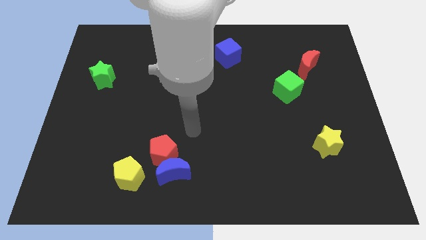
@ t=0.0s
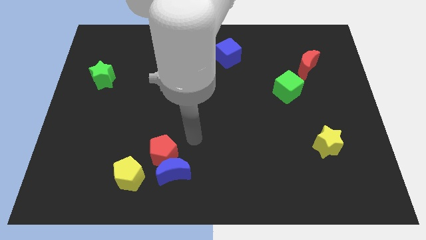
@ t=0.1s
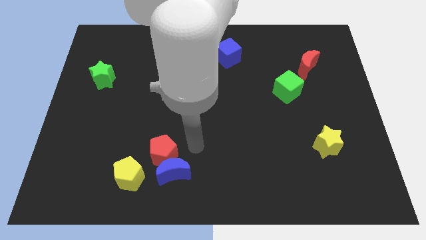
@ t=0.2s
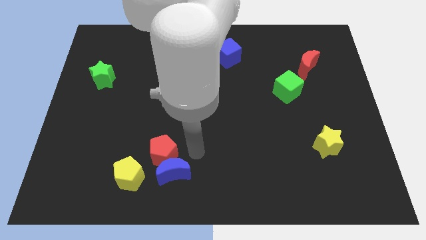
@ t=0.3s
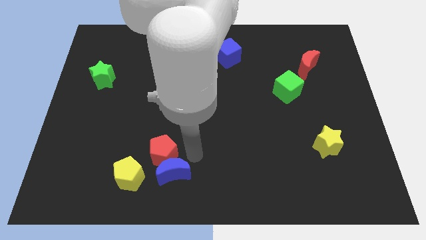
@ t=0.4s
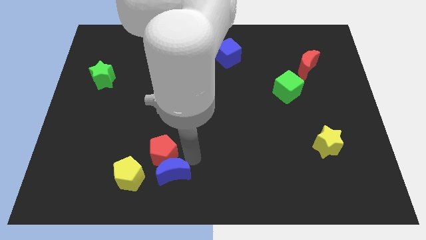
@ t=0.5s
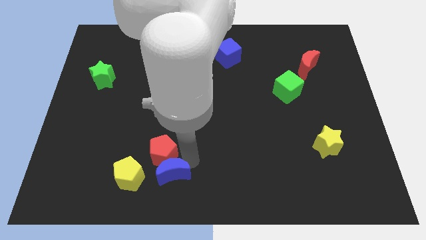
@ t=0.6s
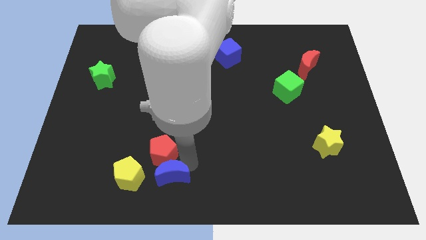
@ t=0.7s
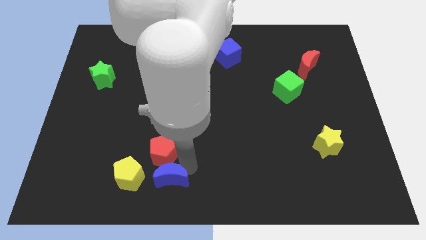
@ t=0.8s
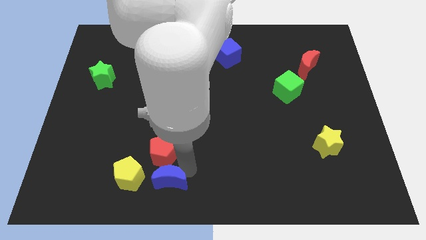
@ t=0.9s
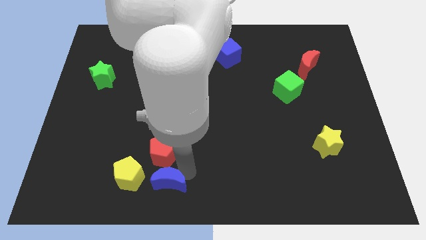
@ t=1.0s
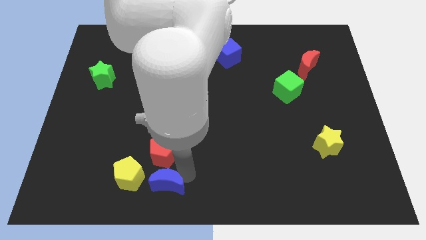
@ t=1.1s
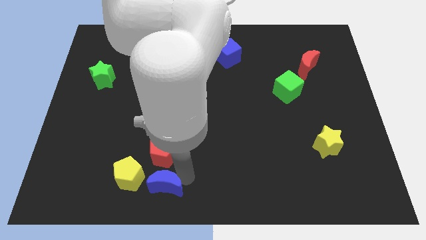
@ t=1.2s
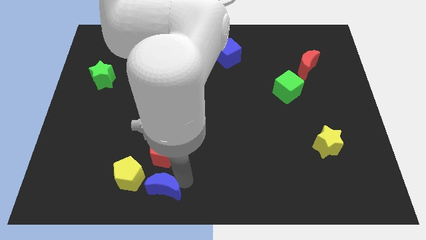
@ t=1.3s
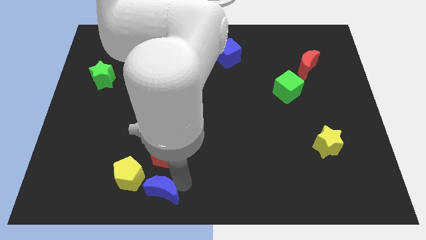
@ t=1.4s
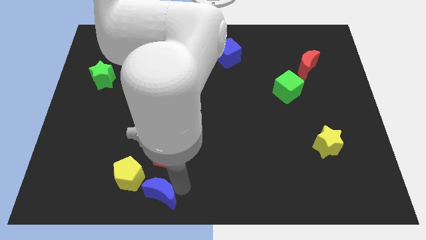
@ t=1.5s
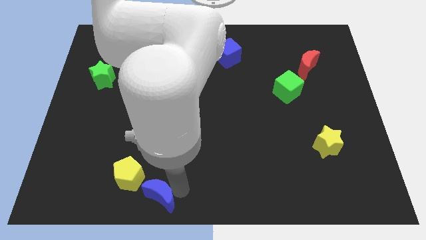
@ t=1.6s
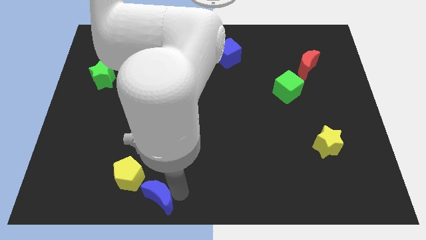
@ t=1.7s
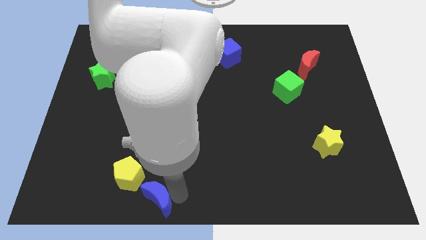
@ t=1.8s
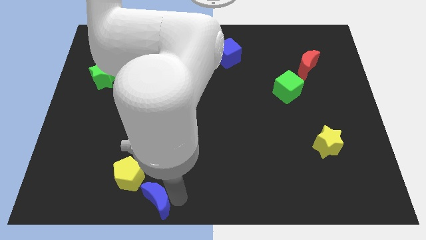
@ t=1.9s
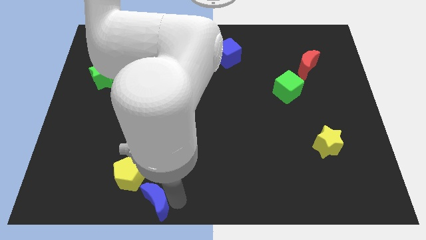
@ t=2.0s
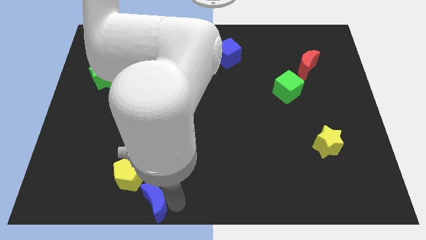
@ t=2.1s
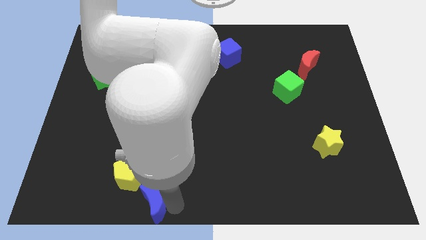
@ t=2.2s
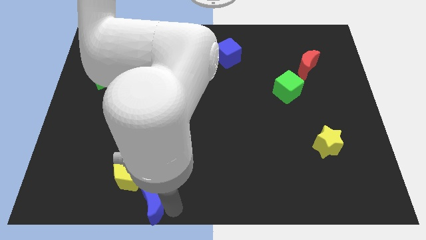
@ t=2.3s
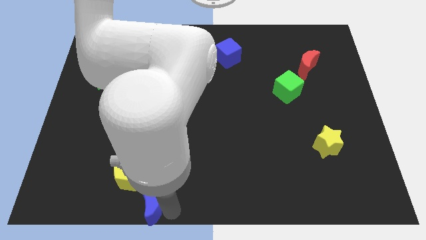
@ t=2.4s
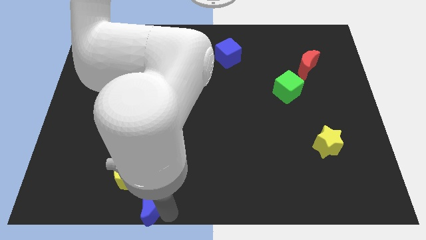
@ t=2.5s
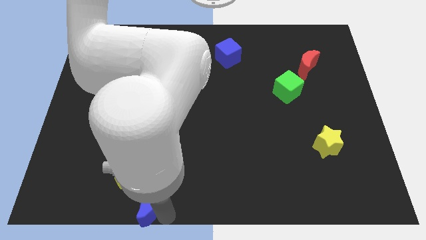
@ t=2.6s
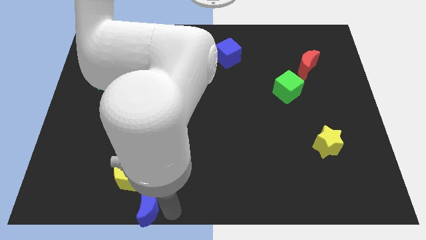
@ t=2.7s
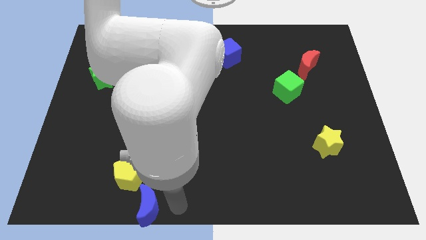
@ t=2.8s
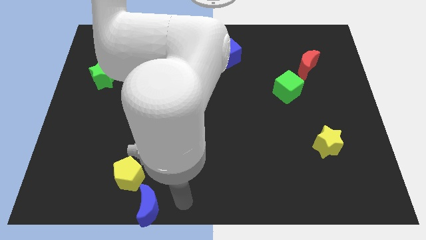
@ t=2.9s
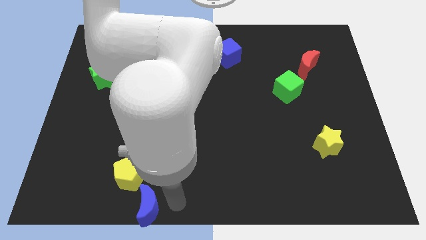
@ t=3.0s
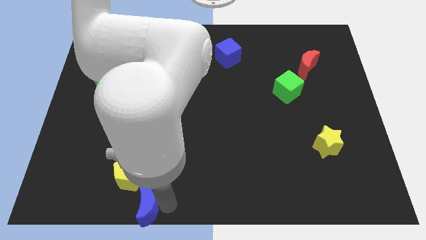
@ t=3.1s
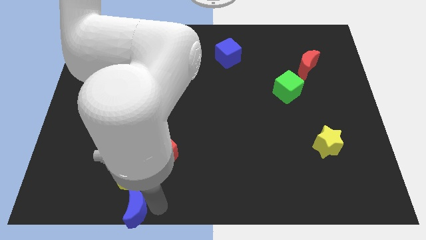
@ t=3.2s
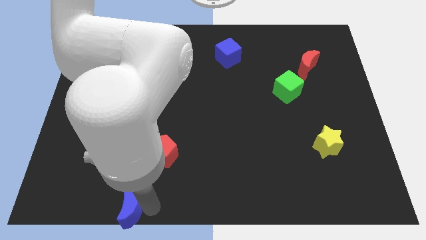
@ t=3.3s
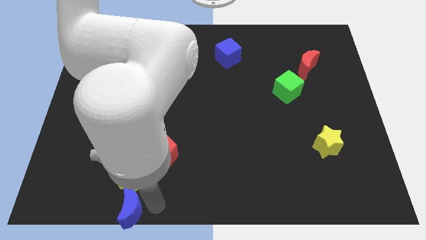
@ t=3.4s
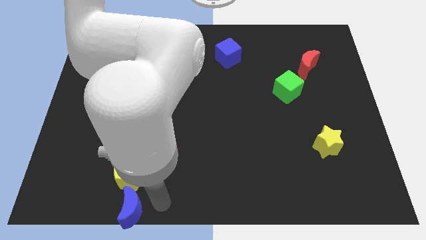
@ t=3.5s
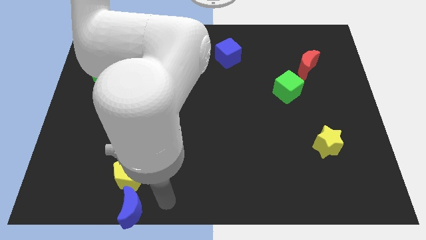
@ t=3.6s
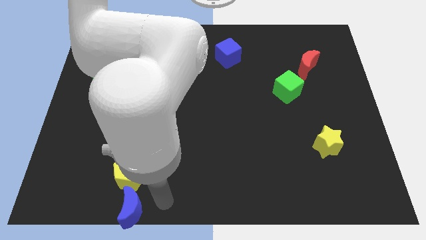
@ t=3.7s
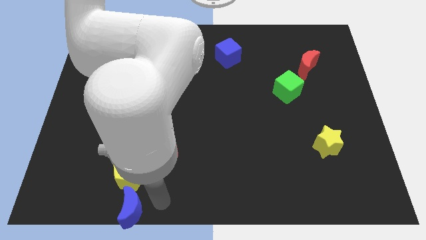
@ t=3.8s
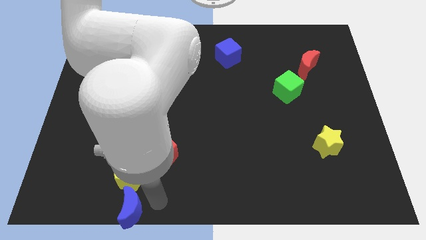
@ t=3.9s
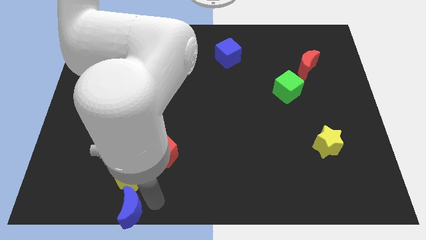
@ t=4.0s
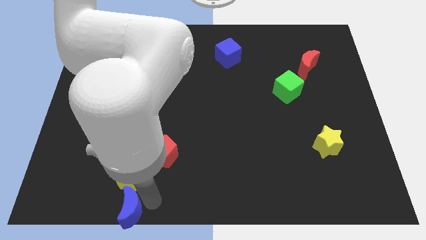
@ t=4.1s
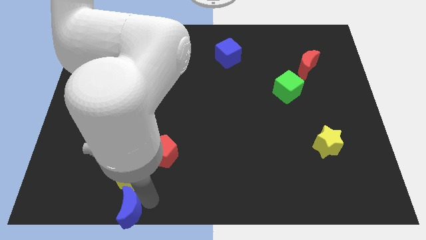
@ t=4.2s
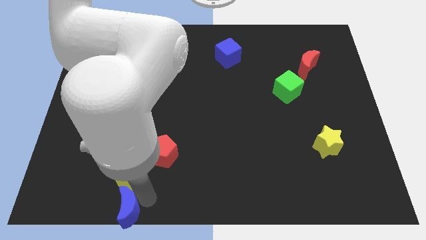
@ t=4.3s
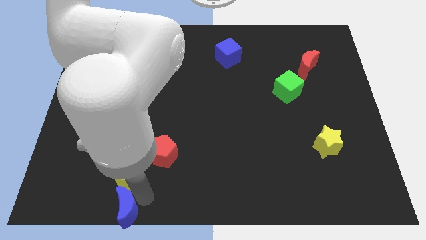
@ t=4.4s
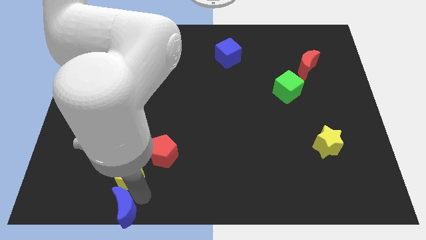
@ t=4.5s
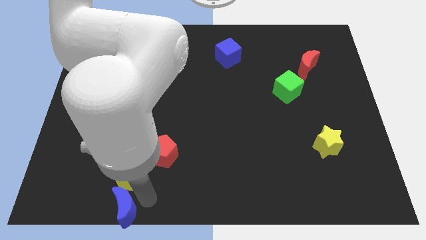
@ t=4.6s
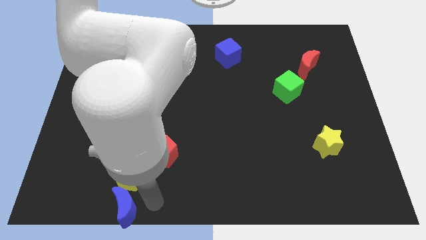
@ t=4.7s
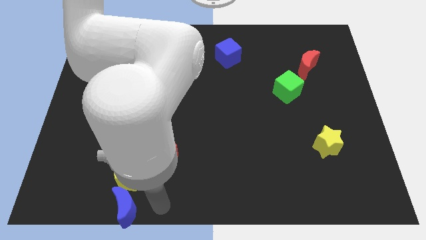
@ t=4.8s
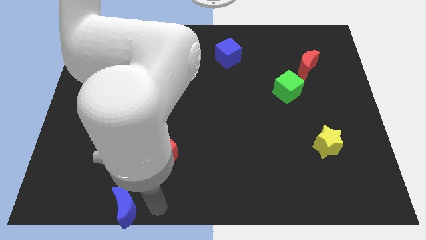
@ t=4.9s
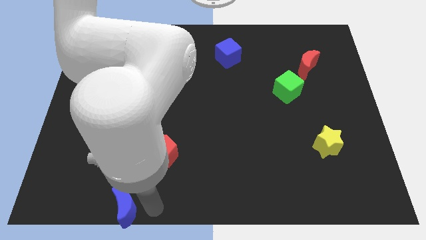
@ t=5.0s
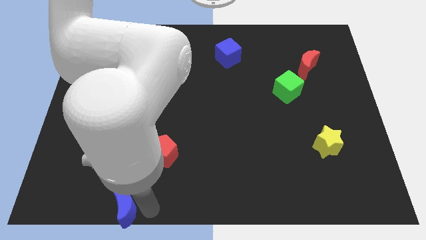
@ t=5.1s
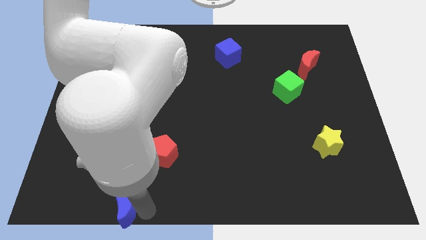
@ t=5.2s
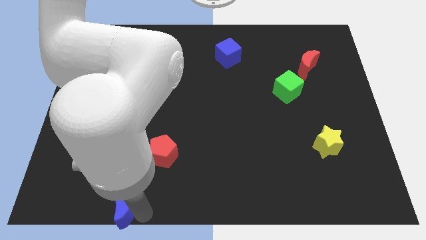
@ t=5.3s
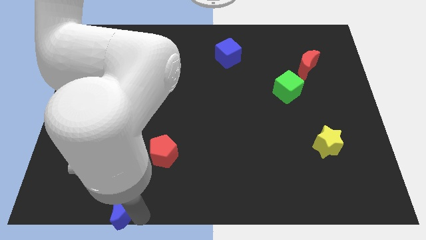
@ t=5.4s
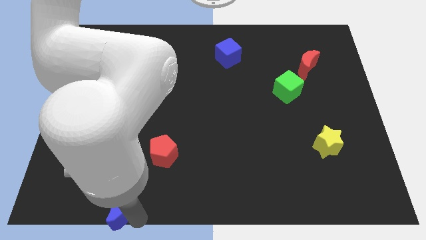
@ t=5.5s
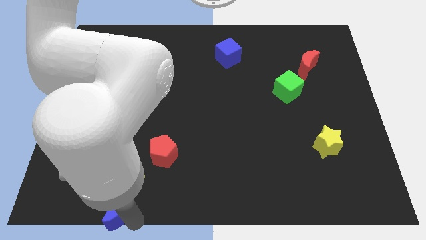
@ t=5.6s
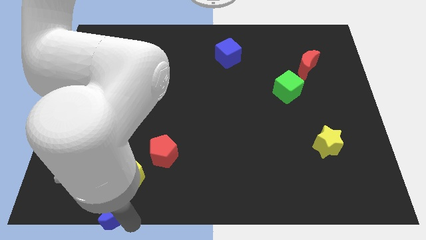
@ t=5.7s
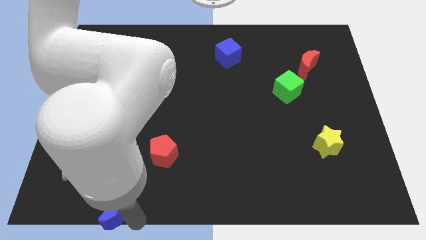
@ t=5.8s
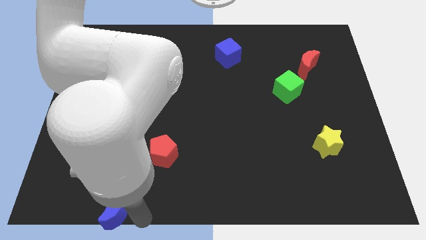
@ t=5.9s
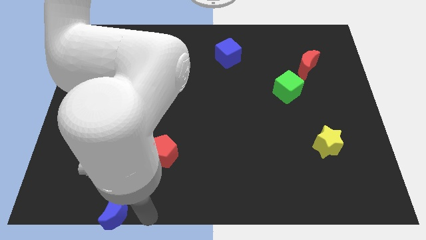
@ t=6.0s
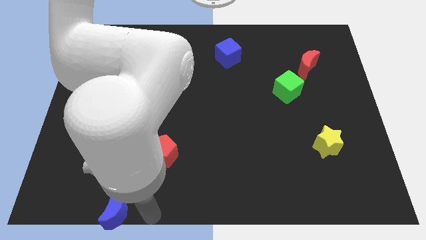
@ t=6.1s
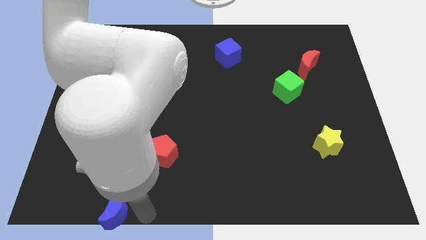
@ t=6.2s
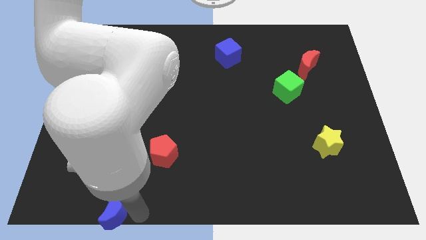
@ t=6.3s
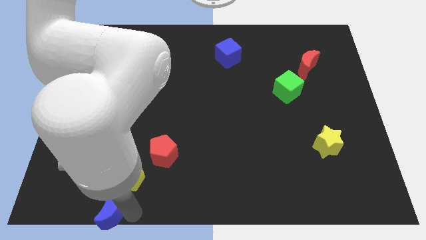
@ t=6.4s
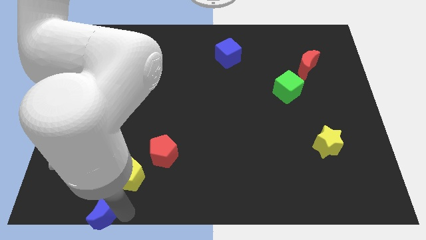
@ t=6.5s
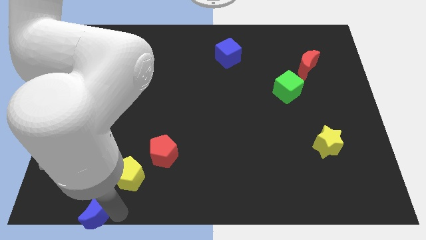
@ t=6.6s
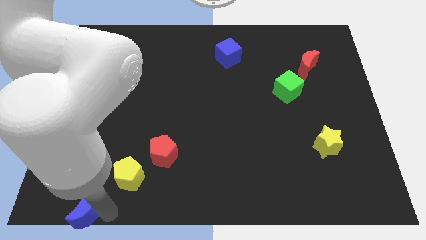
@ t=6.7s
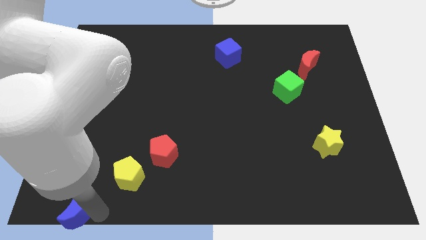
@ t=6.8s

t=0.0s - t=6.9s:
push the blue moon to the bottom left
